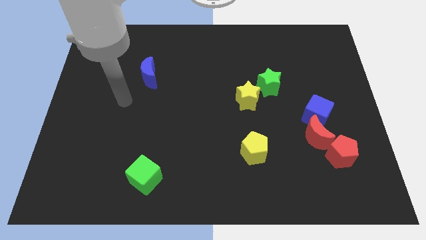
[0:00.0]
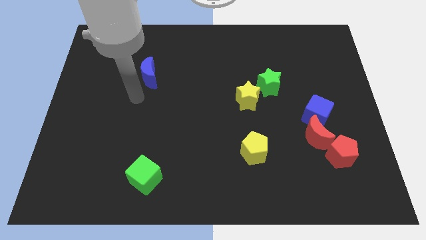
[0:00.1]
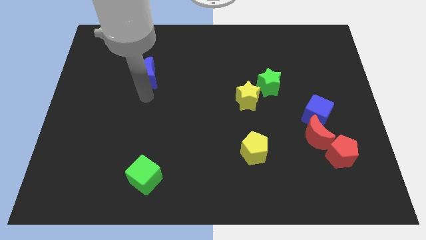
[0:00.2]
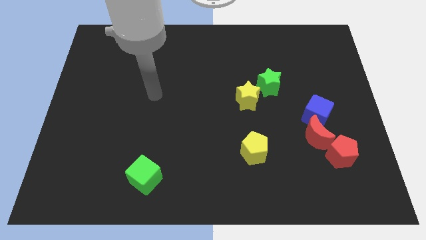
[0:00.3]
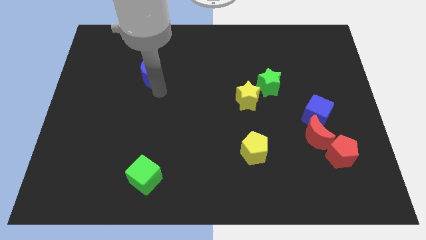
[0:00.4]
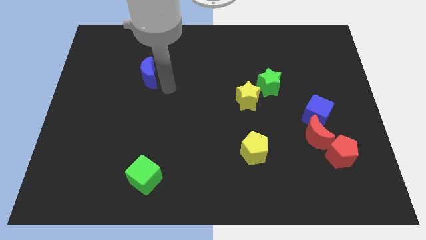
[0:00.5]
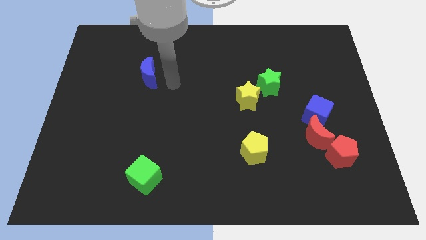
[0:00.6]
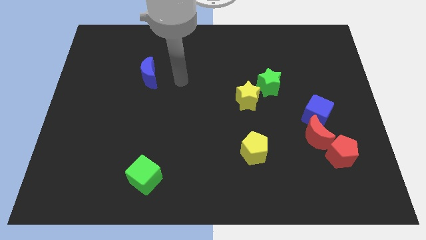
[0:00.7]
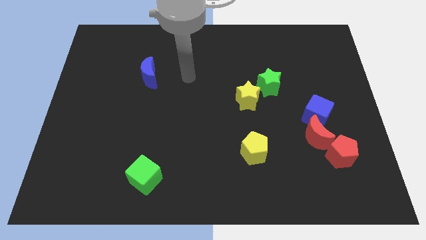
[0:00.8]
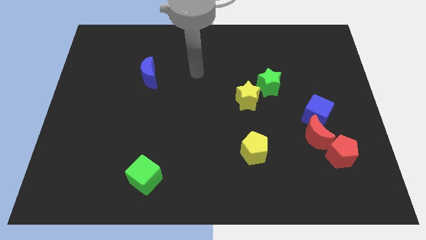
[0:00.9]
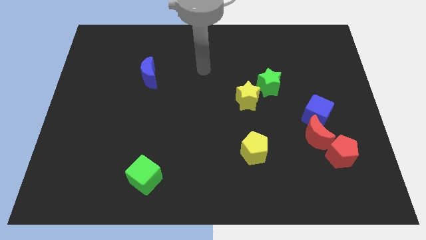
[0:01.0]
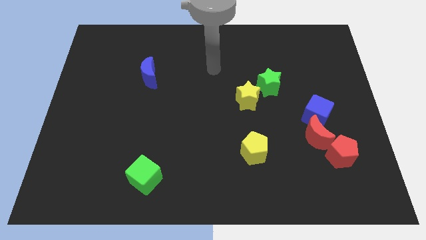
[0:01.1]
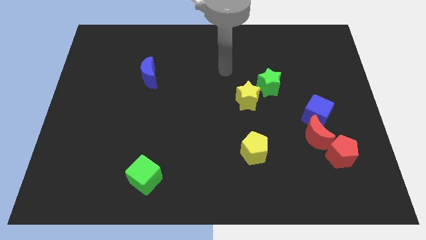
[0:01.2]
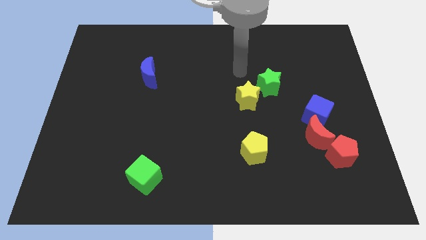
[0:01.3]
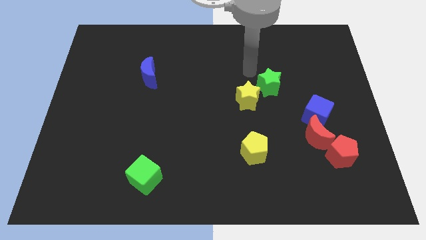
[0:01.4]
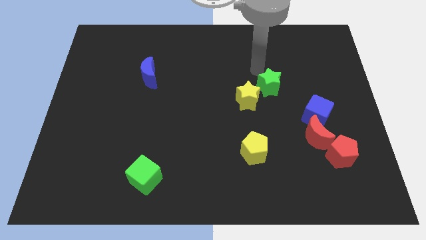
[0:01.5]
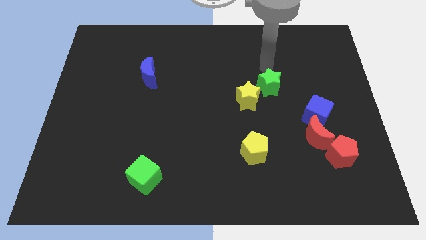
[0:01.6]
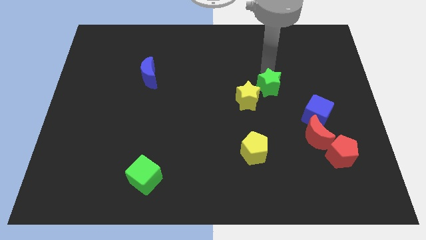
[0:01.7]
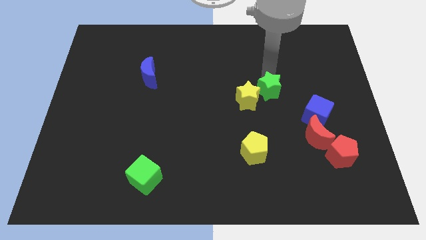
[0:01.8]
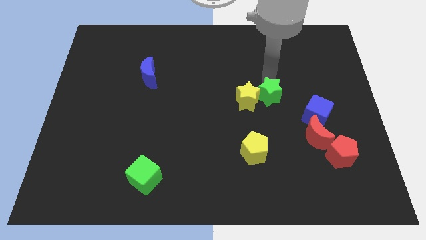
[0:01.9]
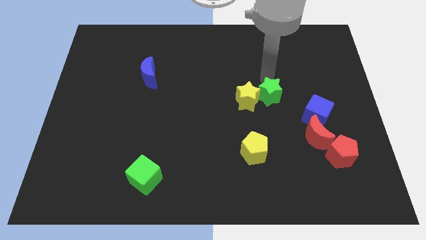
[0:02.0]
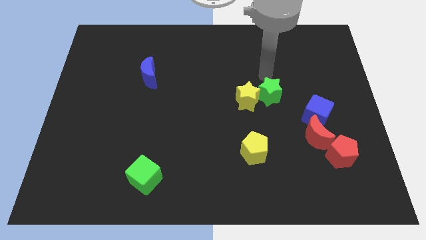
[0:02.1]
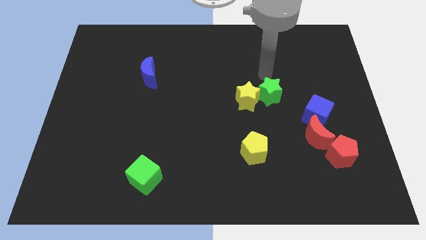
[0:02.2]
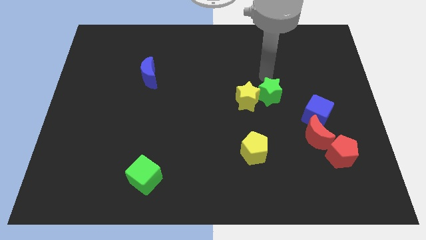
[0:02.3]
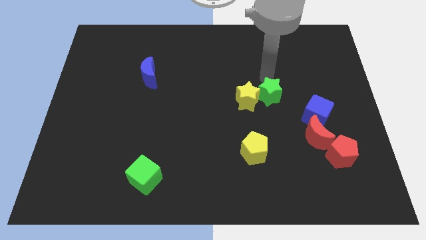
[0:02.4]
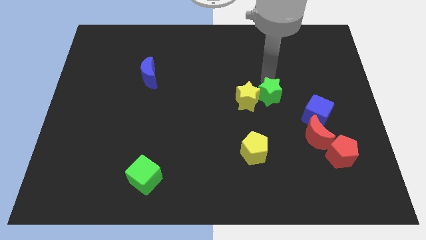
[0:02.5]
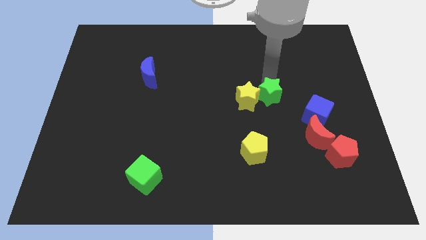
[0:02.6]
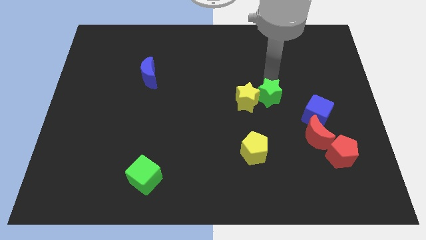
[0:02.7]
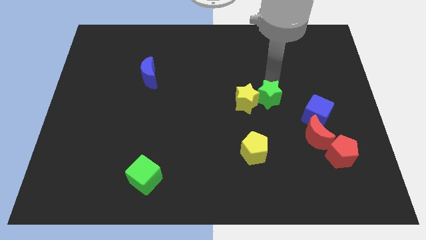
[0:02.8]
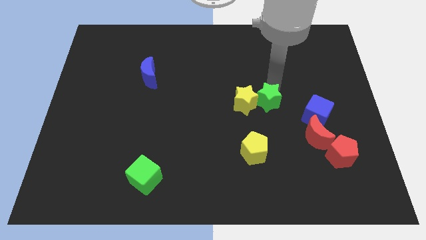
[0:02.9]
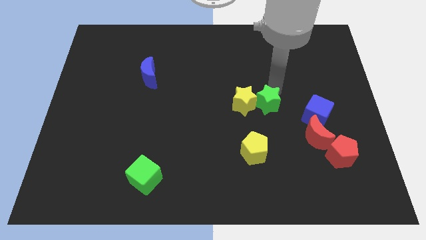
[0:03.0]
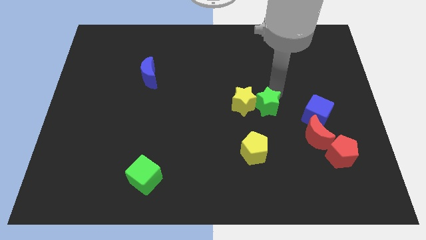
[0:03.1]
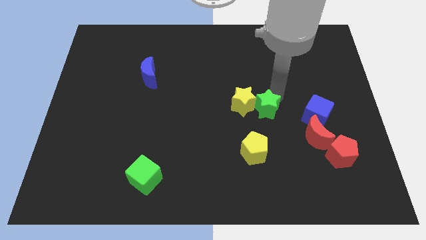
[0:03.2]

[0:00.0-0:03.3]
push the green star downwards a little bit

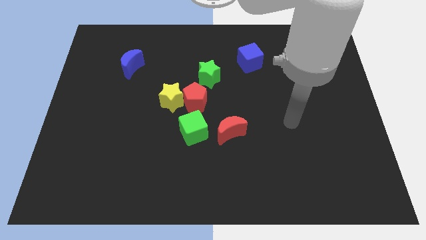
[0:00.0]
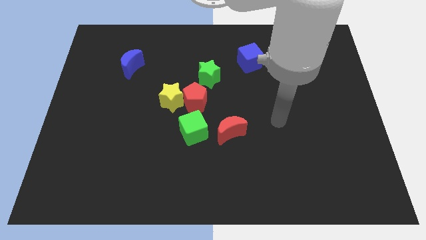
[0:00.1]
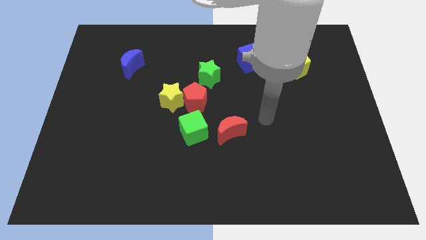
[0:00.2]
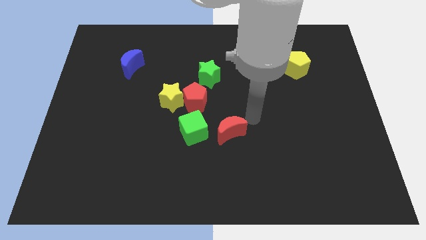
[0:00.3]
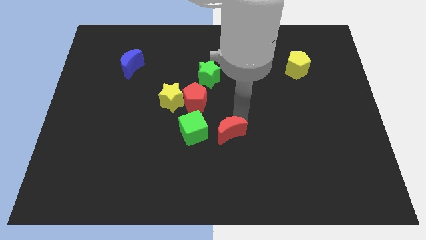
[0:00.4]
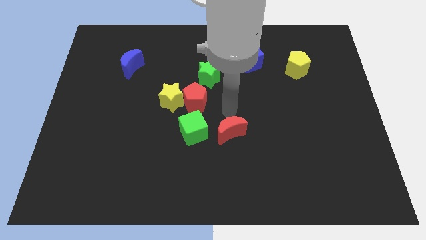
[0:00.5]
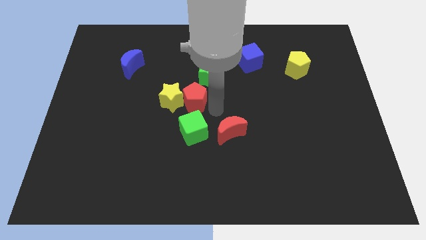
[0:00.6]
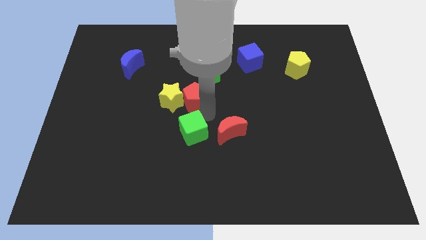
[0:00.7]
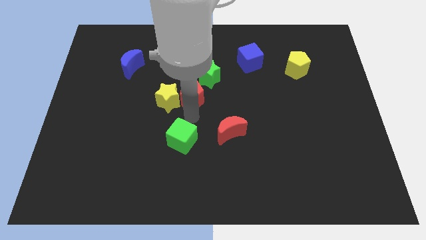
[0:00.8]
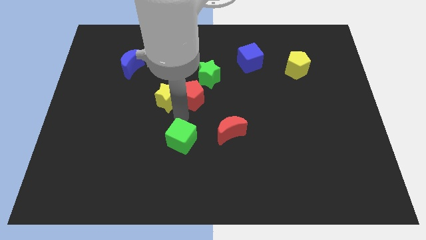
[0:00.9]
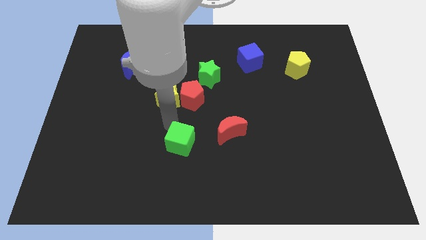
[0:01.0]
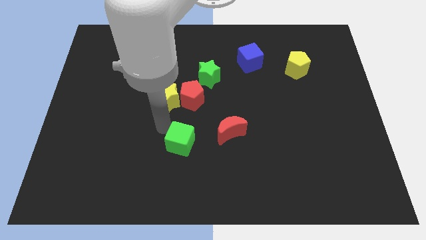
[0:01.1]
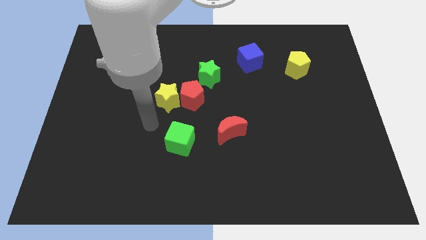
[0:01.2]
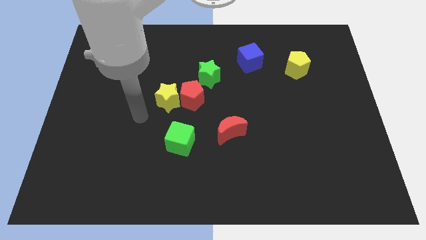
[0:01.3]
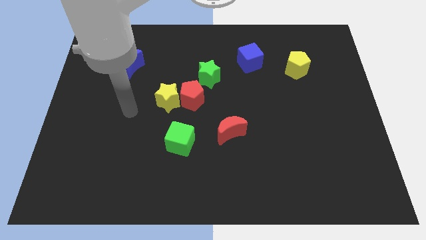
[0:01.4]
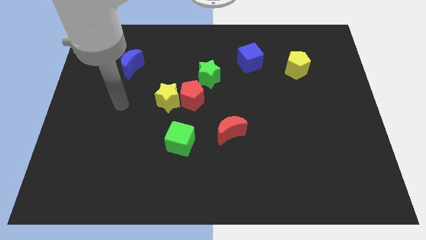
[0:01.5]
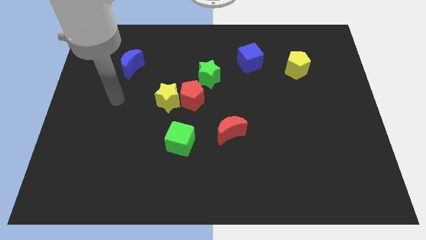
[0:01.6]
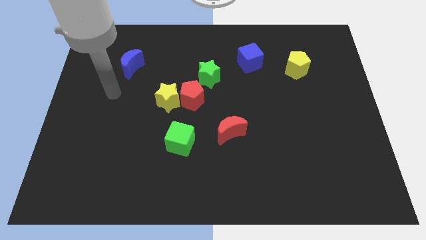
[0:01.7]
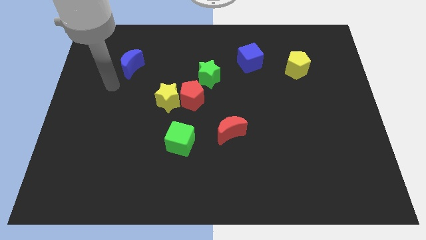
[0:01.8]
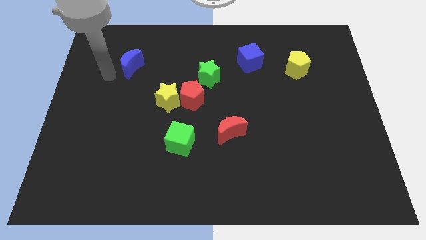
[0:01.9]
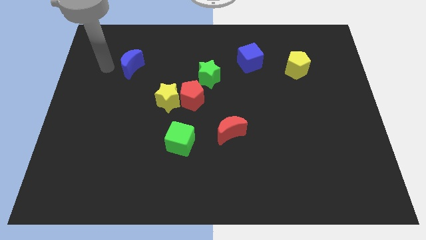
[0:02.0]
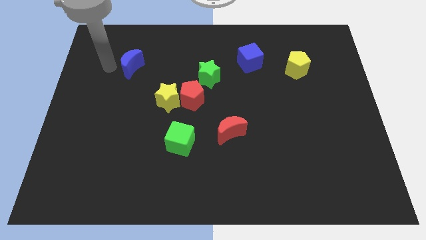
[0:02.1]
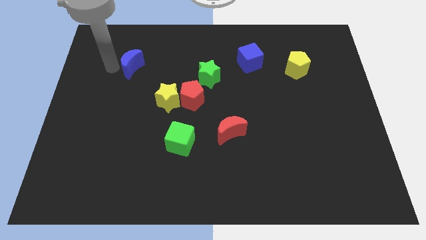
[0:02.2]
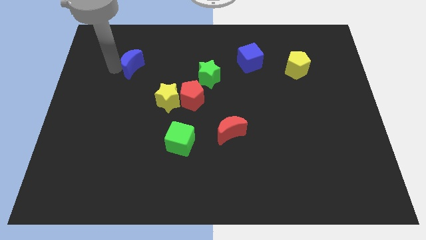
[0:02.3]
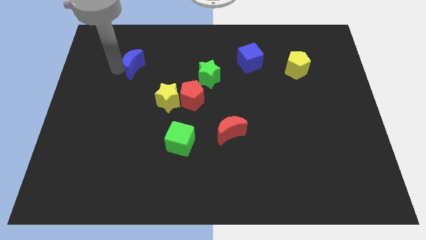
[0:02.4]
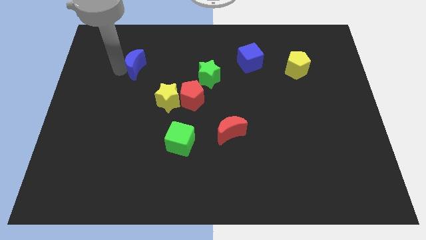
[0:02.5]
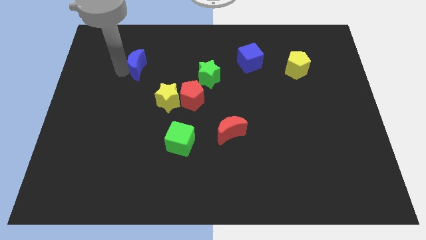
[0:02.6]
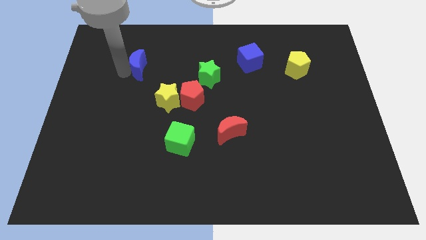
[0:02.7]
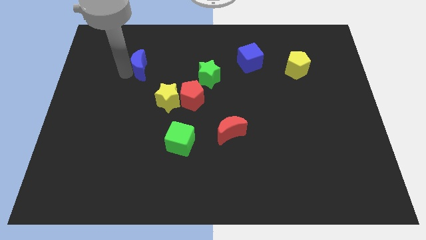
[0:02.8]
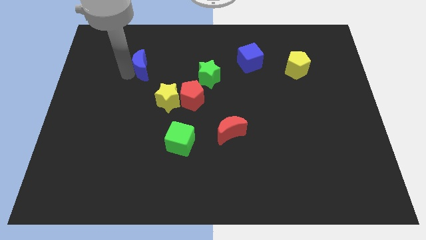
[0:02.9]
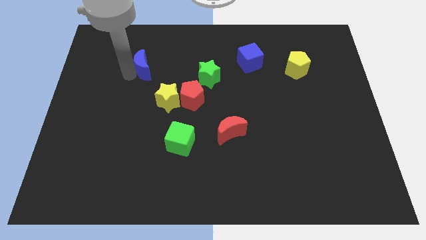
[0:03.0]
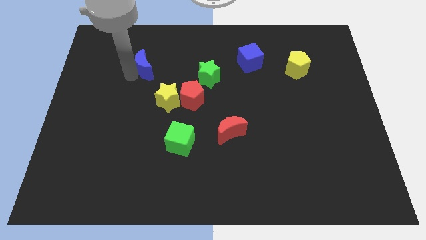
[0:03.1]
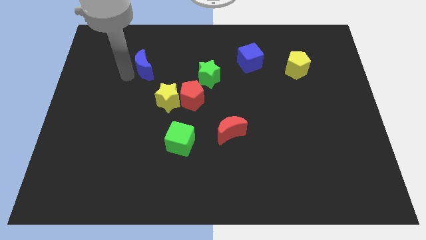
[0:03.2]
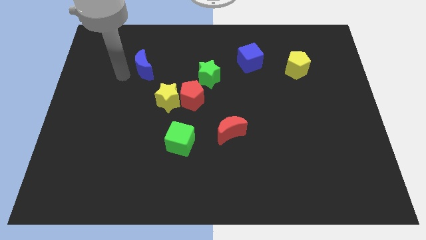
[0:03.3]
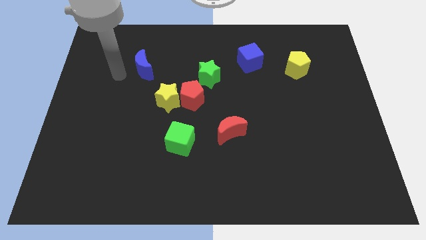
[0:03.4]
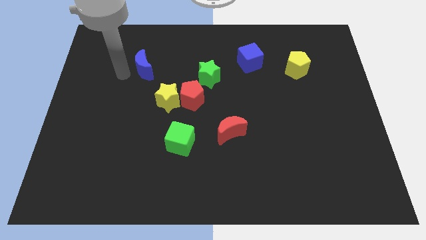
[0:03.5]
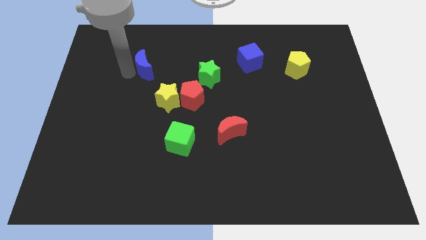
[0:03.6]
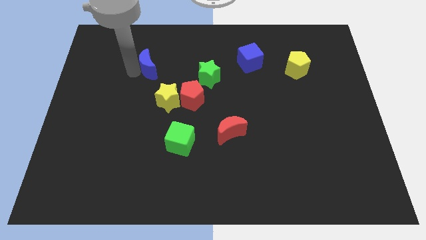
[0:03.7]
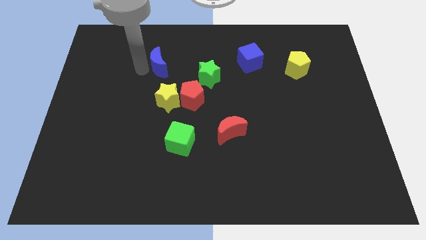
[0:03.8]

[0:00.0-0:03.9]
move the blue moon right a little

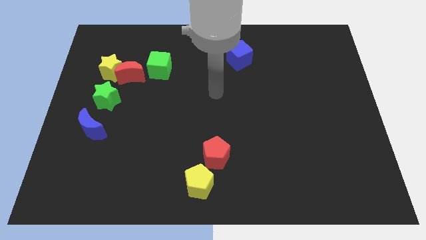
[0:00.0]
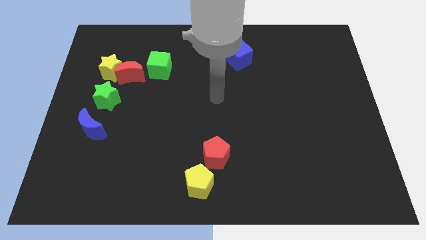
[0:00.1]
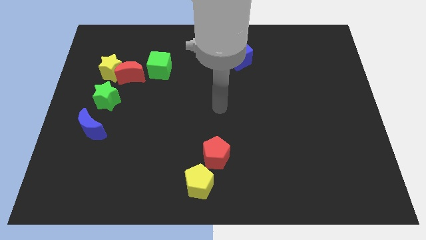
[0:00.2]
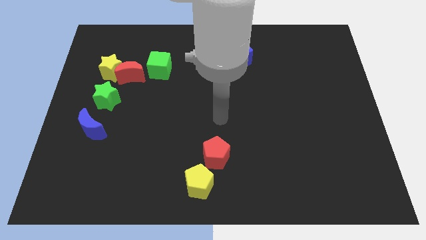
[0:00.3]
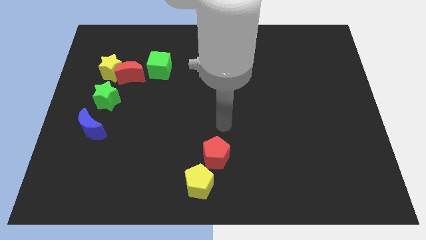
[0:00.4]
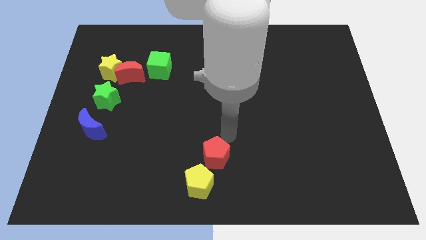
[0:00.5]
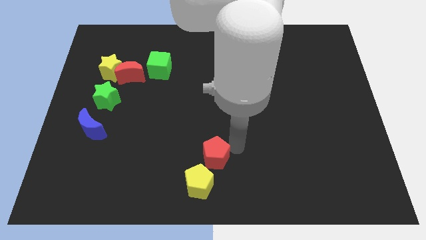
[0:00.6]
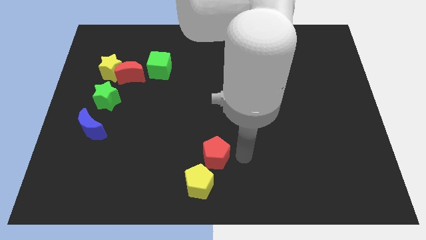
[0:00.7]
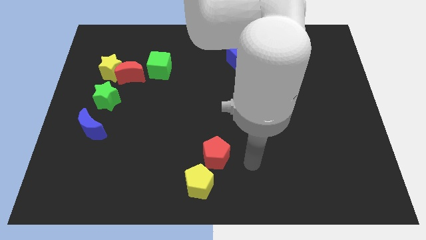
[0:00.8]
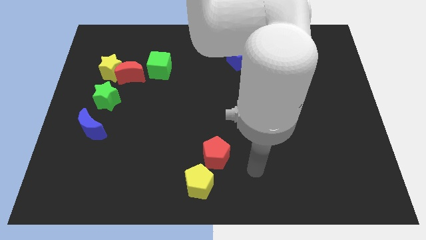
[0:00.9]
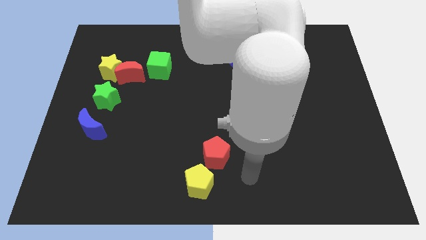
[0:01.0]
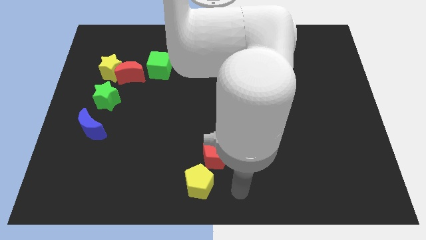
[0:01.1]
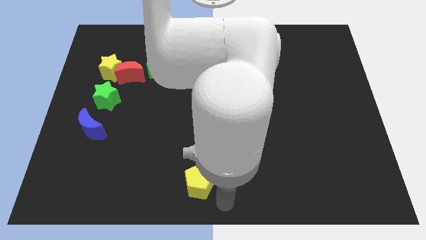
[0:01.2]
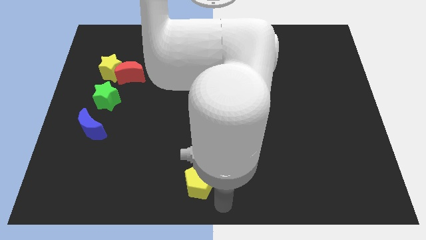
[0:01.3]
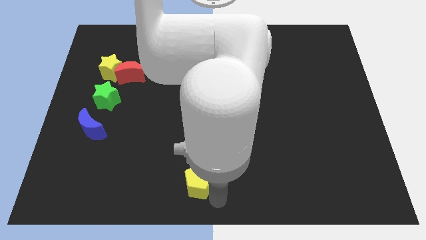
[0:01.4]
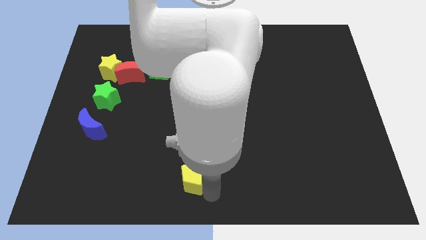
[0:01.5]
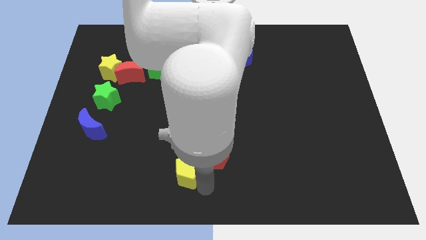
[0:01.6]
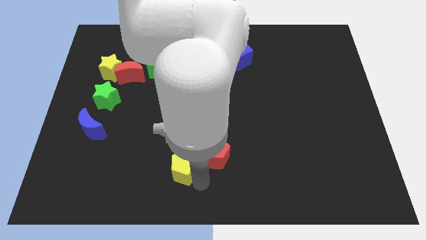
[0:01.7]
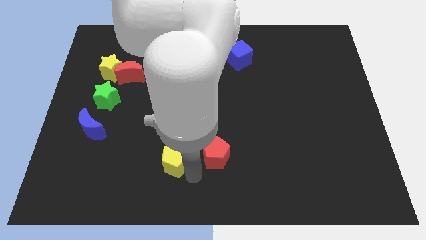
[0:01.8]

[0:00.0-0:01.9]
slide the yellow pentagon a bit upwards and left
